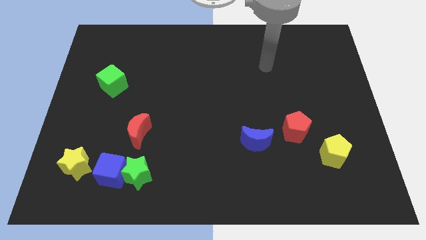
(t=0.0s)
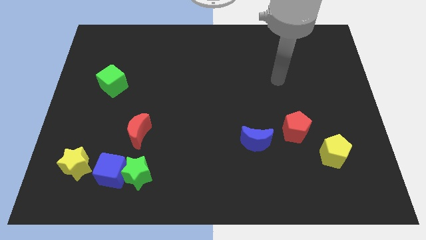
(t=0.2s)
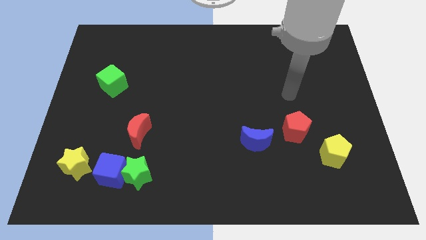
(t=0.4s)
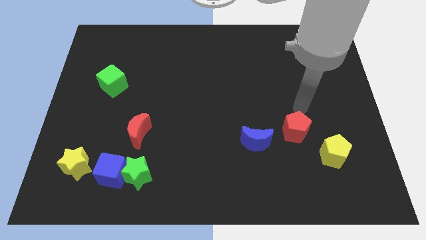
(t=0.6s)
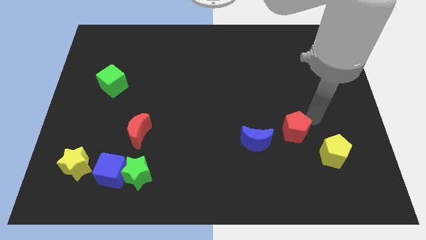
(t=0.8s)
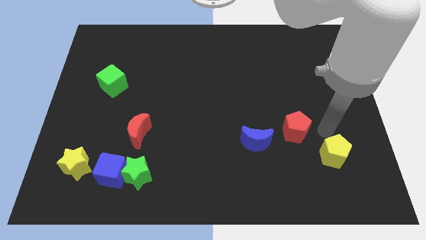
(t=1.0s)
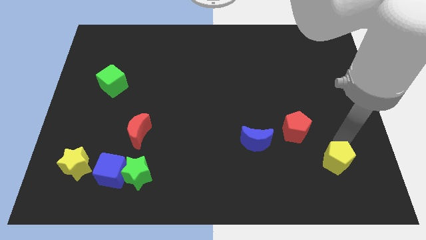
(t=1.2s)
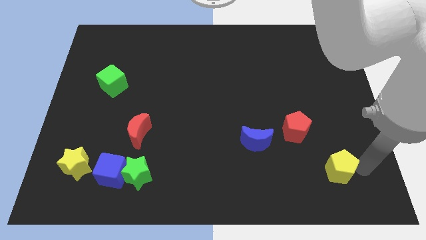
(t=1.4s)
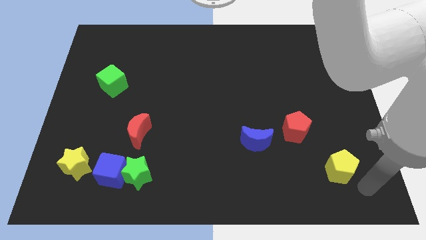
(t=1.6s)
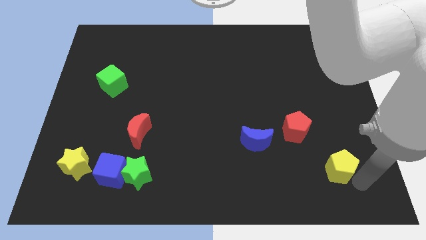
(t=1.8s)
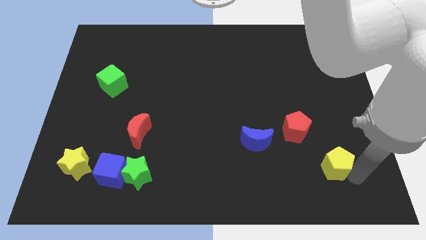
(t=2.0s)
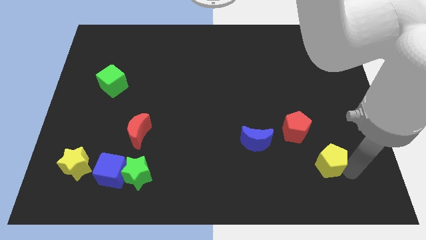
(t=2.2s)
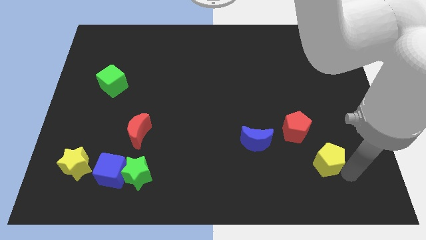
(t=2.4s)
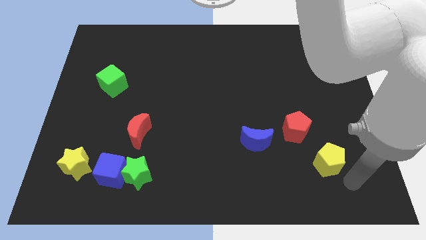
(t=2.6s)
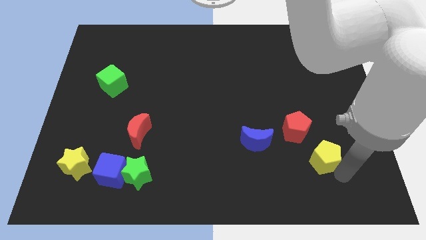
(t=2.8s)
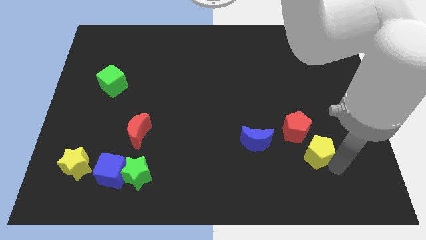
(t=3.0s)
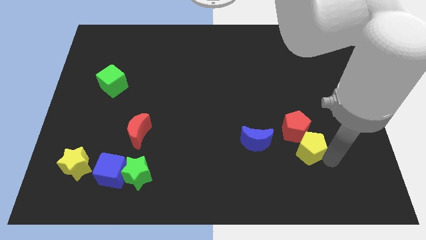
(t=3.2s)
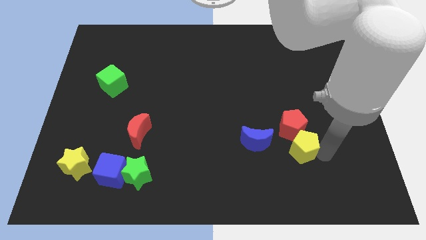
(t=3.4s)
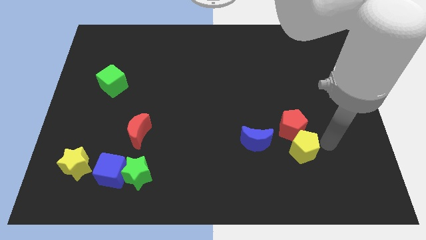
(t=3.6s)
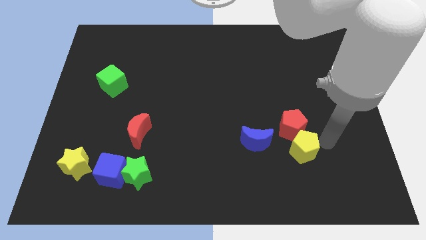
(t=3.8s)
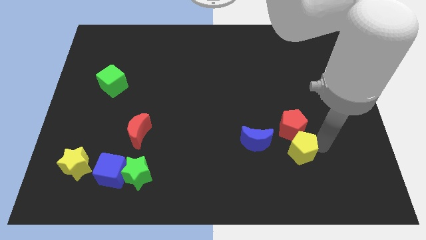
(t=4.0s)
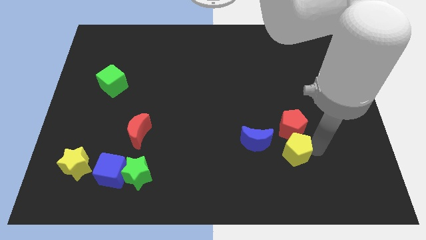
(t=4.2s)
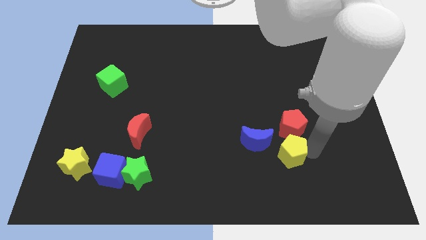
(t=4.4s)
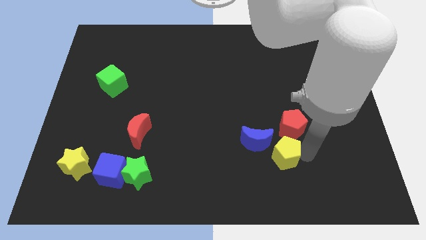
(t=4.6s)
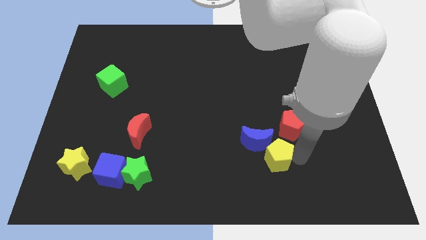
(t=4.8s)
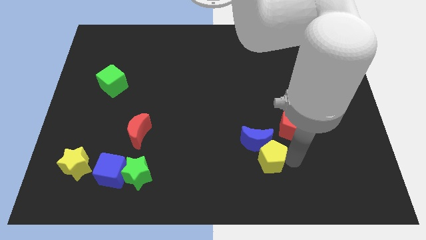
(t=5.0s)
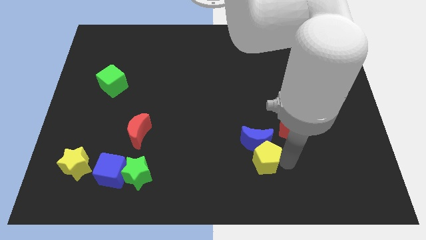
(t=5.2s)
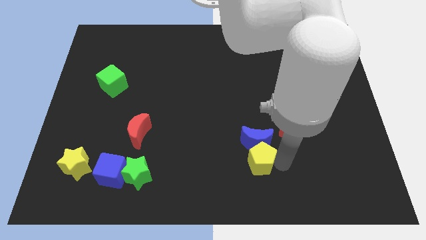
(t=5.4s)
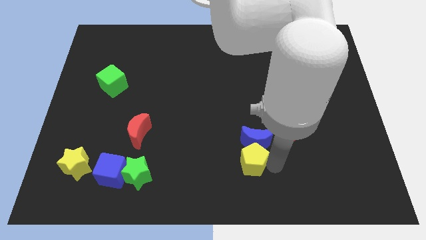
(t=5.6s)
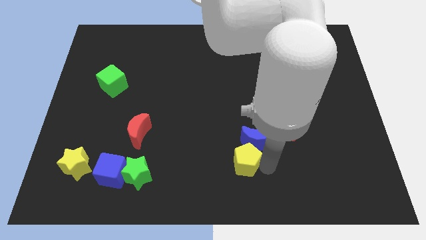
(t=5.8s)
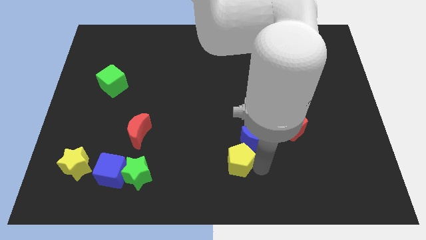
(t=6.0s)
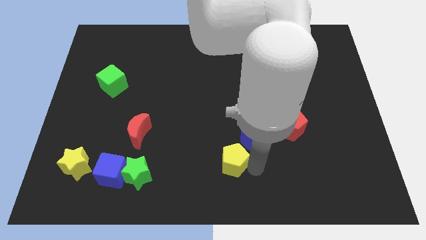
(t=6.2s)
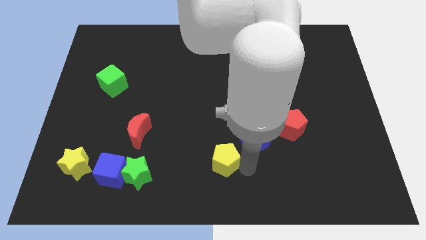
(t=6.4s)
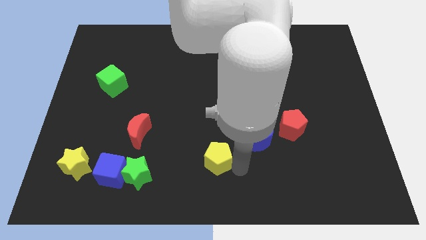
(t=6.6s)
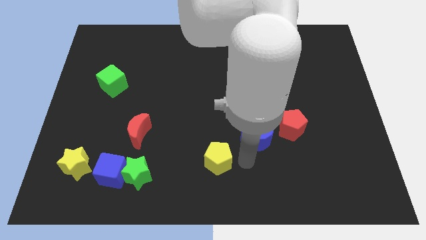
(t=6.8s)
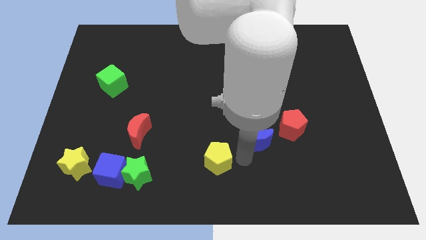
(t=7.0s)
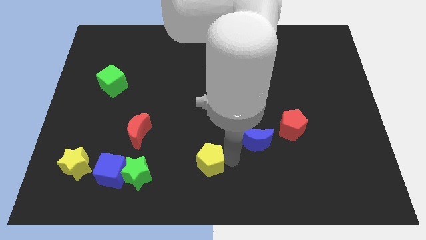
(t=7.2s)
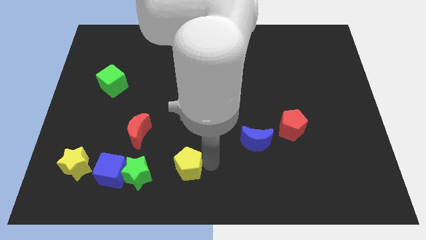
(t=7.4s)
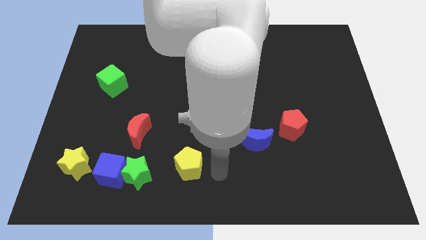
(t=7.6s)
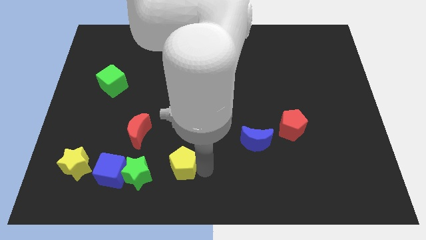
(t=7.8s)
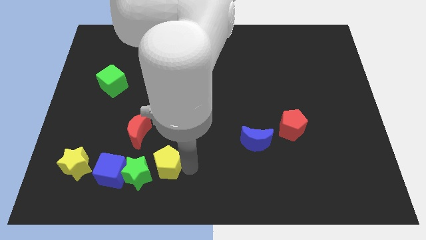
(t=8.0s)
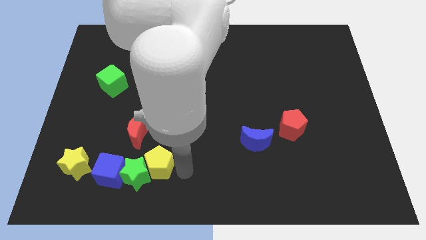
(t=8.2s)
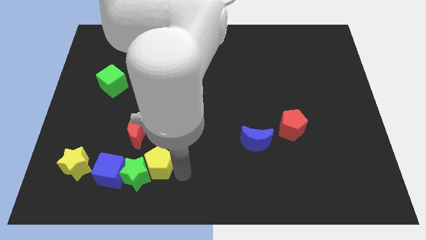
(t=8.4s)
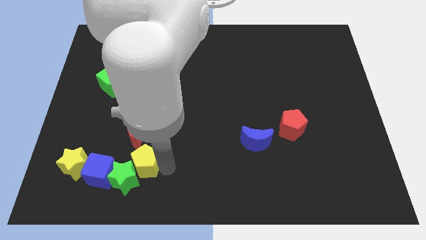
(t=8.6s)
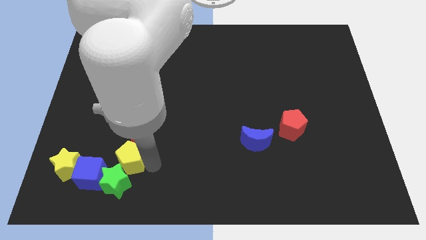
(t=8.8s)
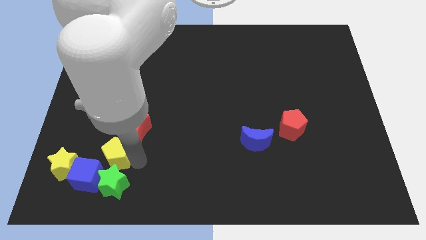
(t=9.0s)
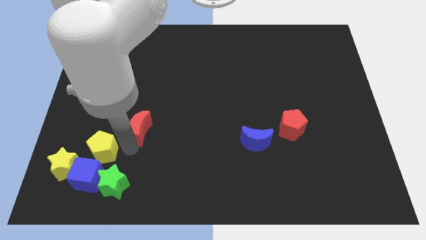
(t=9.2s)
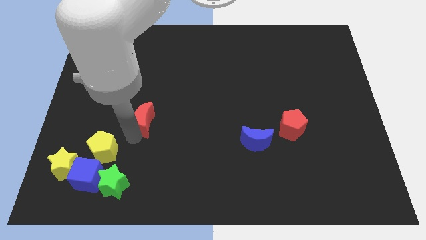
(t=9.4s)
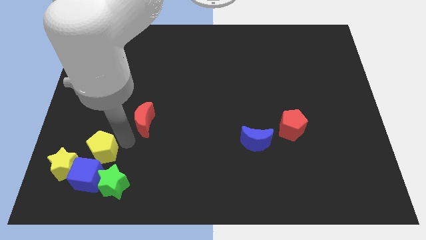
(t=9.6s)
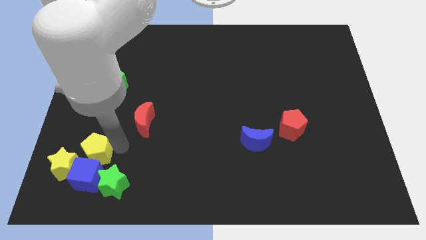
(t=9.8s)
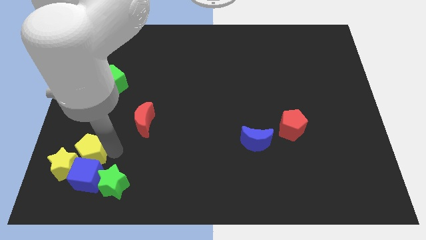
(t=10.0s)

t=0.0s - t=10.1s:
put the yellow pentagon close to the yellow star

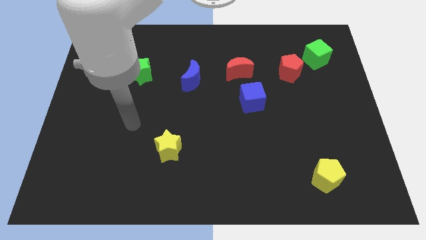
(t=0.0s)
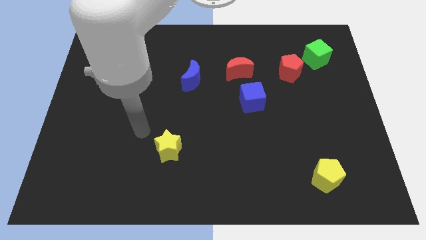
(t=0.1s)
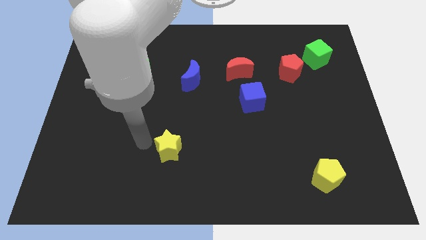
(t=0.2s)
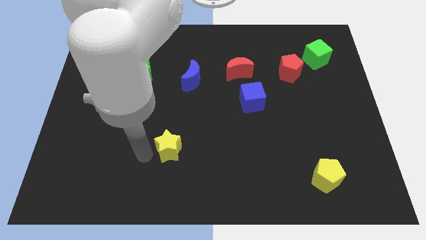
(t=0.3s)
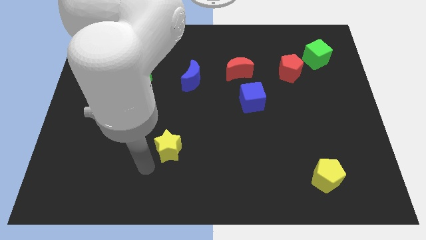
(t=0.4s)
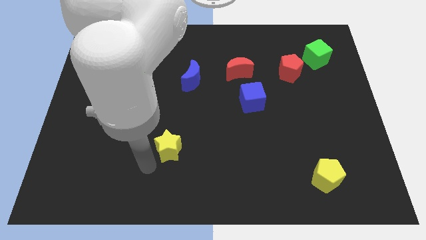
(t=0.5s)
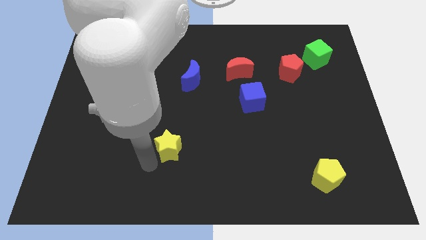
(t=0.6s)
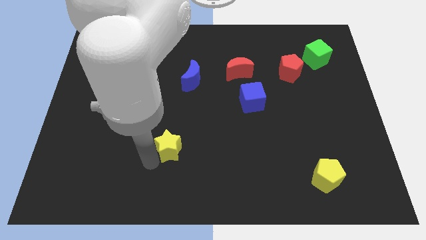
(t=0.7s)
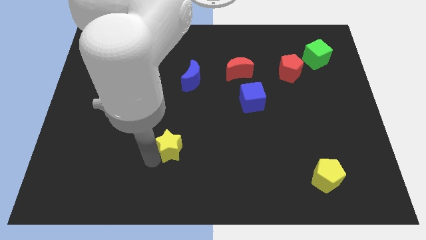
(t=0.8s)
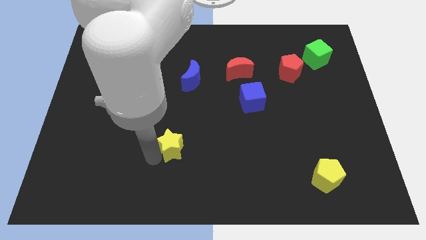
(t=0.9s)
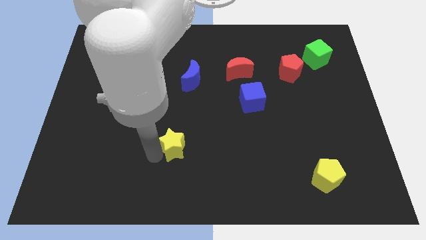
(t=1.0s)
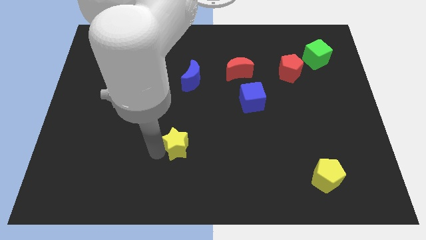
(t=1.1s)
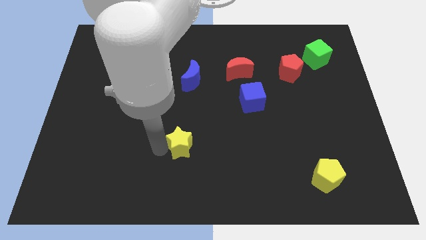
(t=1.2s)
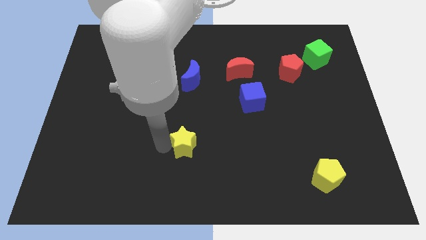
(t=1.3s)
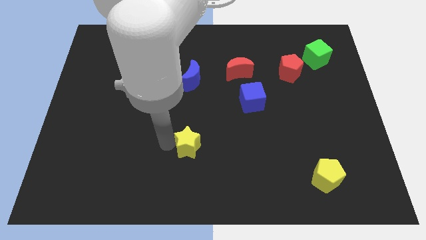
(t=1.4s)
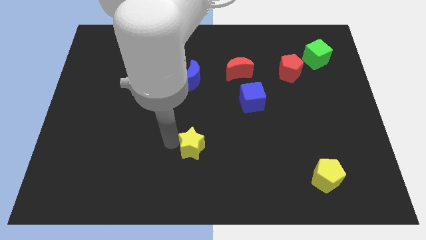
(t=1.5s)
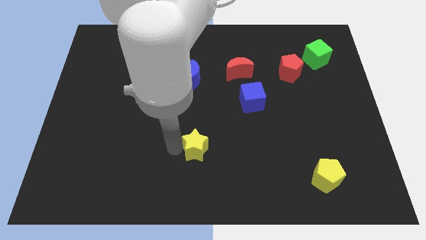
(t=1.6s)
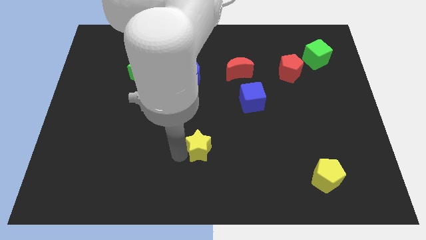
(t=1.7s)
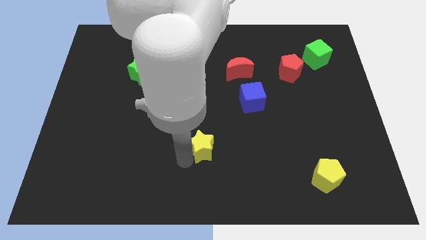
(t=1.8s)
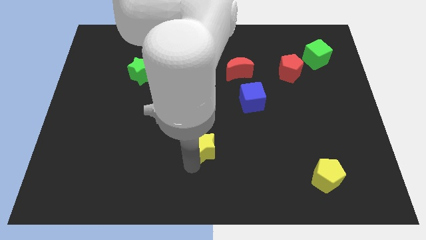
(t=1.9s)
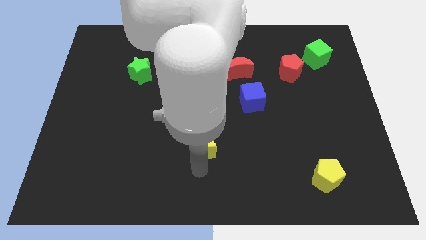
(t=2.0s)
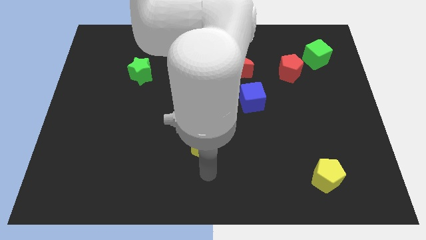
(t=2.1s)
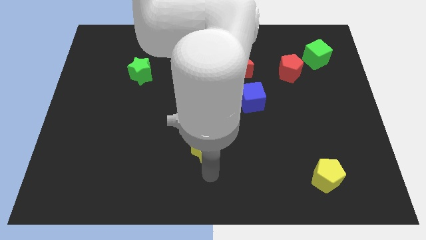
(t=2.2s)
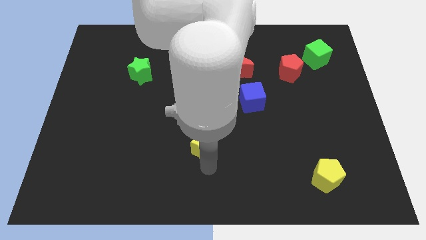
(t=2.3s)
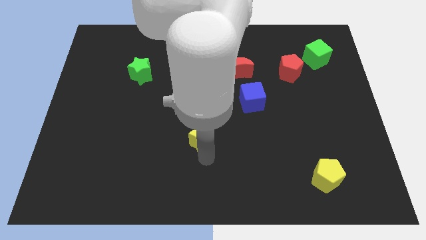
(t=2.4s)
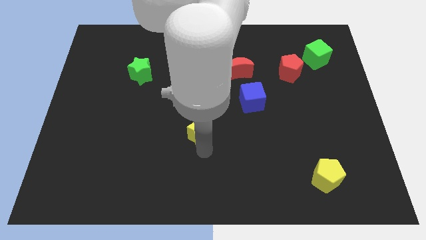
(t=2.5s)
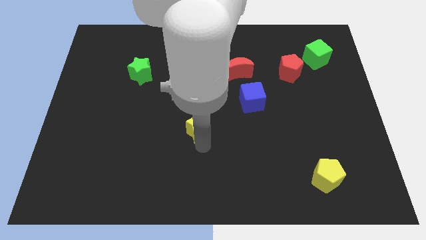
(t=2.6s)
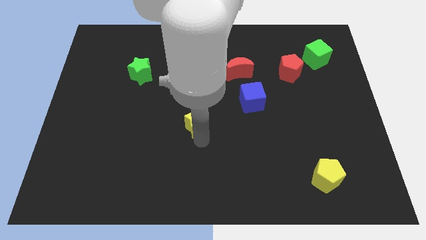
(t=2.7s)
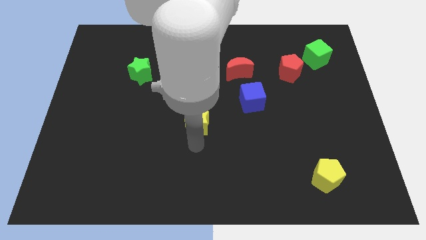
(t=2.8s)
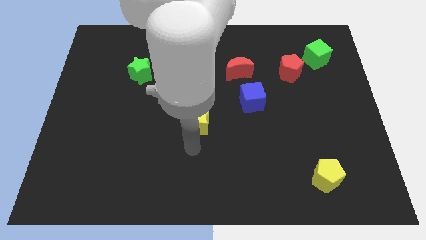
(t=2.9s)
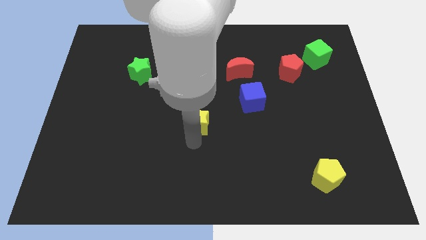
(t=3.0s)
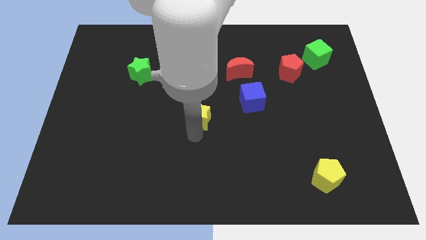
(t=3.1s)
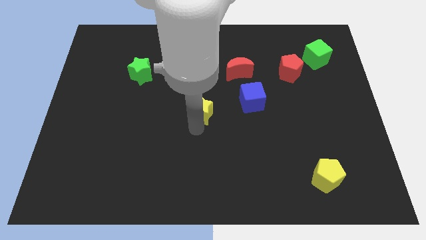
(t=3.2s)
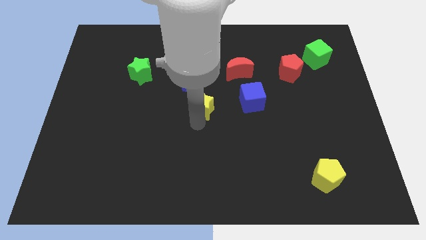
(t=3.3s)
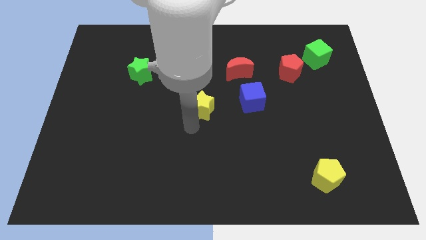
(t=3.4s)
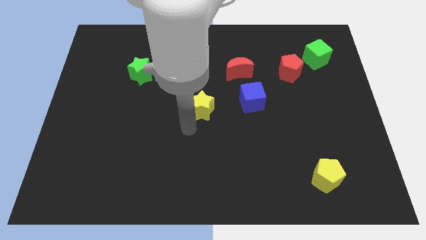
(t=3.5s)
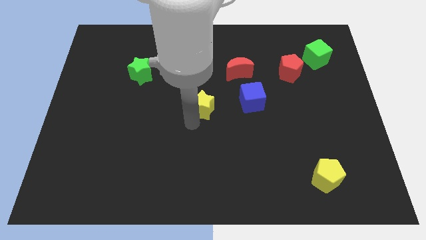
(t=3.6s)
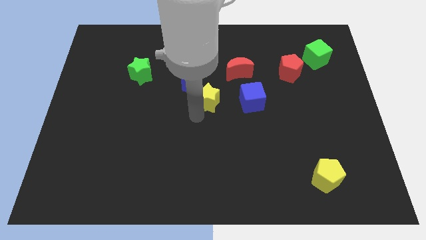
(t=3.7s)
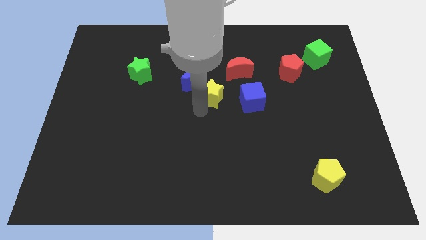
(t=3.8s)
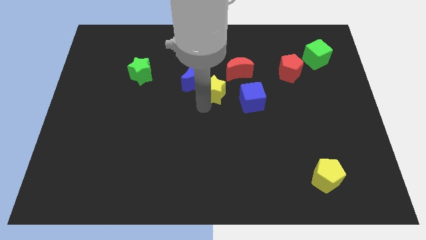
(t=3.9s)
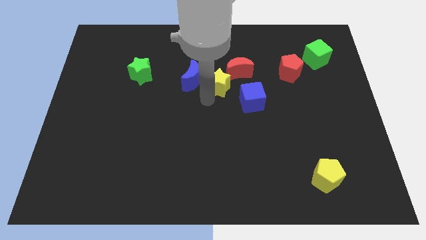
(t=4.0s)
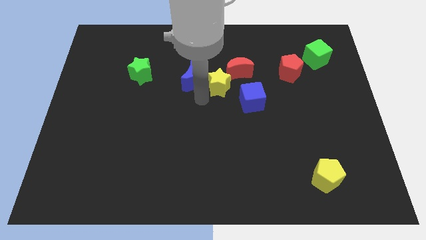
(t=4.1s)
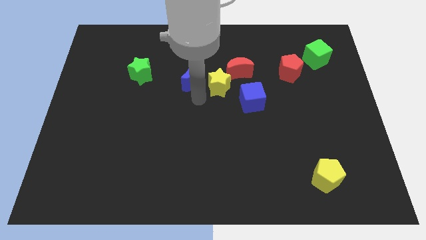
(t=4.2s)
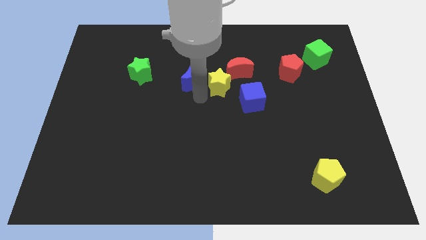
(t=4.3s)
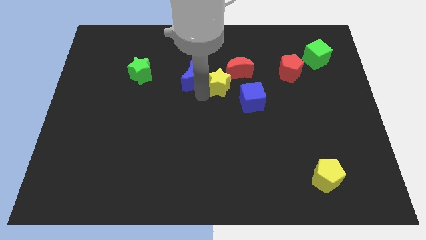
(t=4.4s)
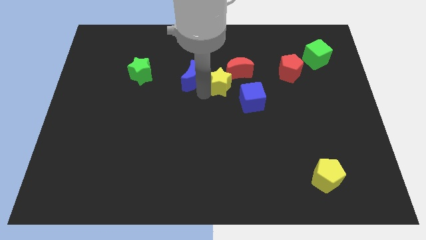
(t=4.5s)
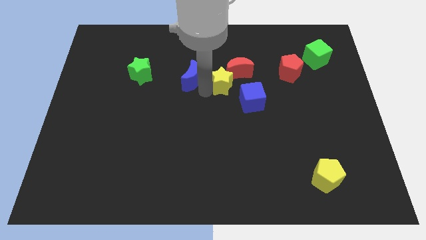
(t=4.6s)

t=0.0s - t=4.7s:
push the yellow star towards the red moon
